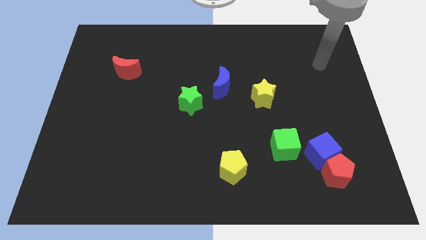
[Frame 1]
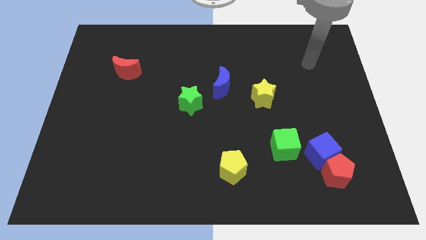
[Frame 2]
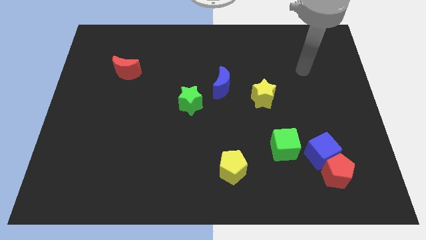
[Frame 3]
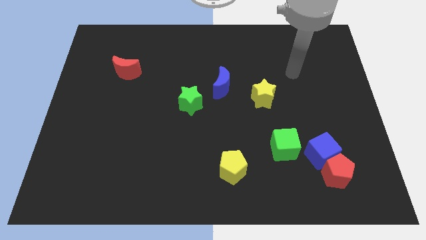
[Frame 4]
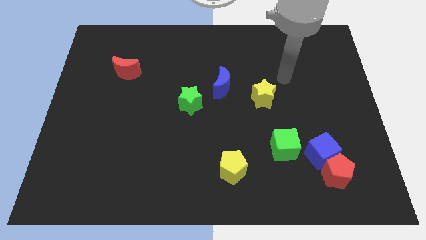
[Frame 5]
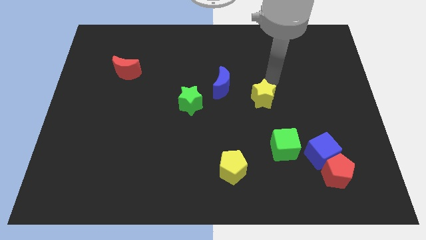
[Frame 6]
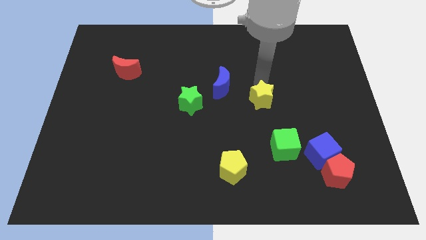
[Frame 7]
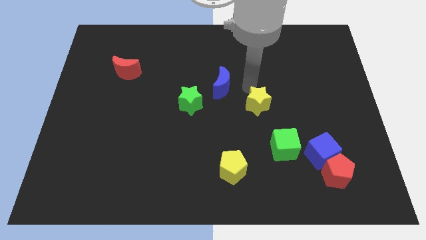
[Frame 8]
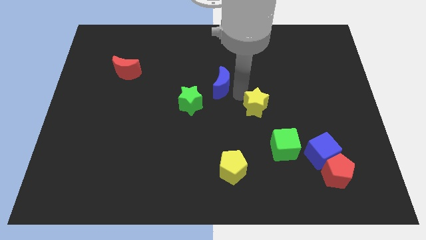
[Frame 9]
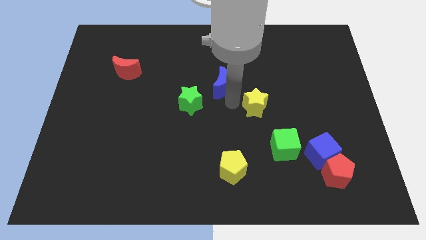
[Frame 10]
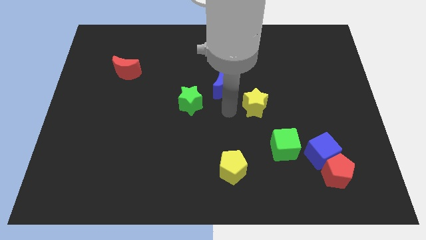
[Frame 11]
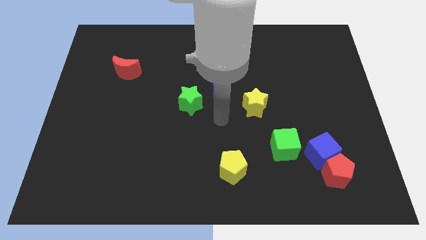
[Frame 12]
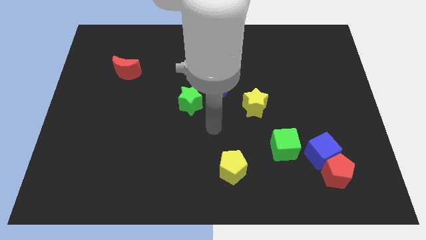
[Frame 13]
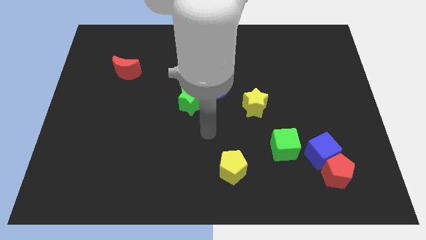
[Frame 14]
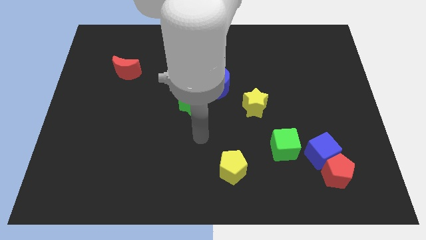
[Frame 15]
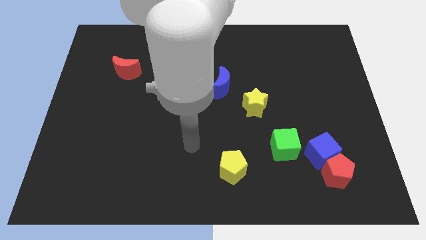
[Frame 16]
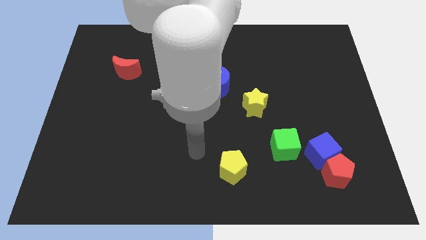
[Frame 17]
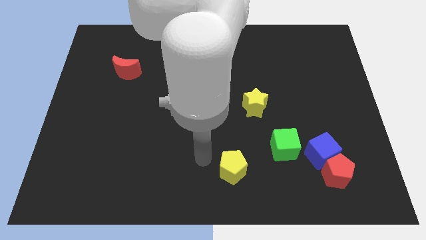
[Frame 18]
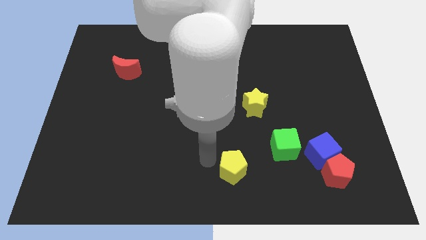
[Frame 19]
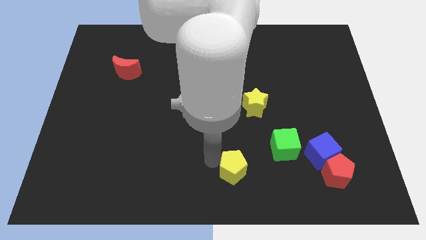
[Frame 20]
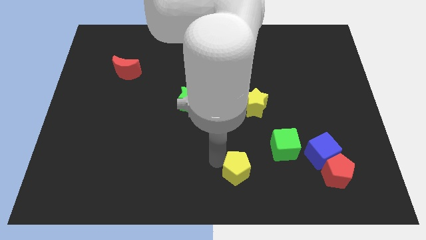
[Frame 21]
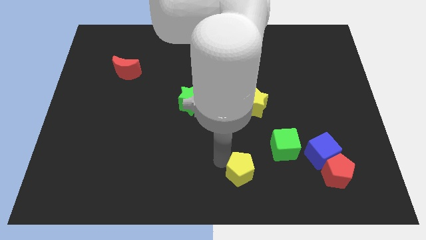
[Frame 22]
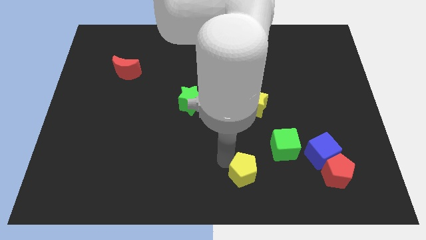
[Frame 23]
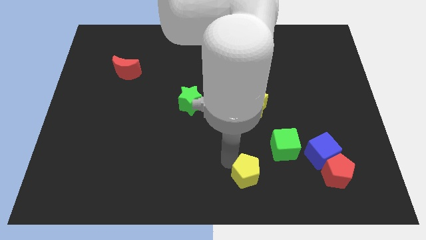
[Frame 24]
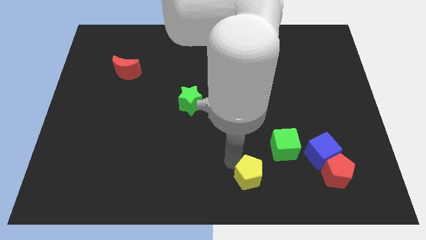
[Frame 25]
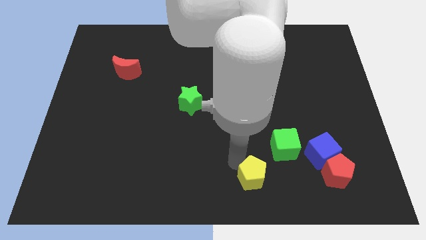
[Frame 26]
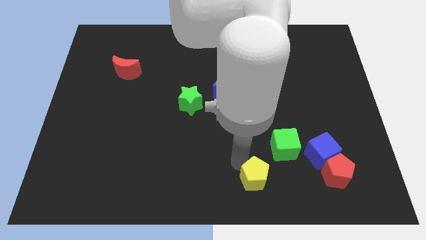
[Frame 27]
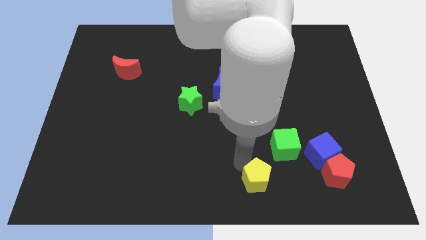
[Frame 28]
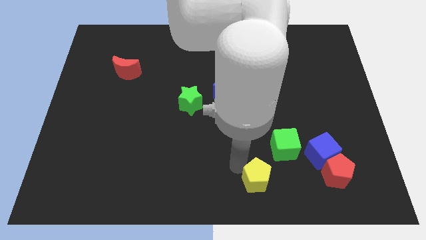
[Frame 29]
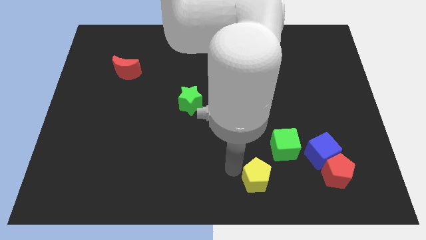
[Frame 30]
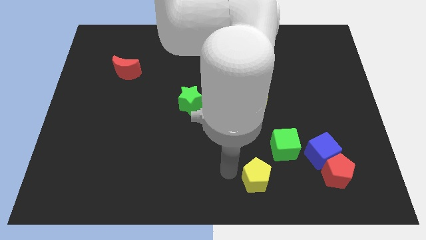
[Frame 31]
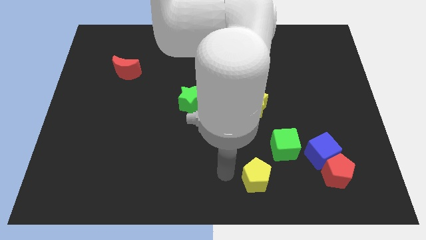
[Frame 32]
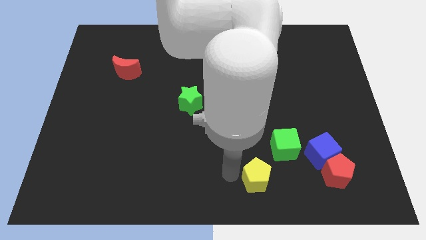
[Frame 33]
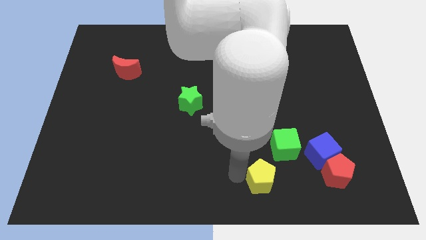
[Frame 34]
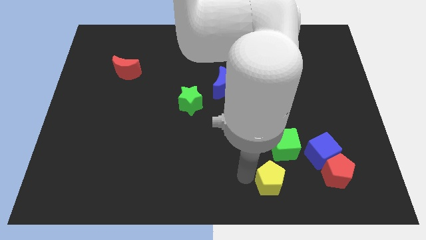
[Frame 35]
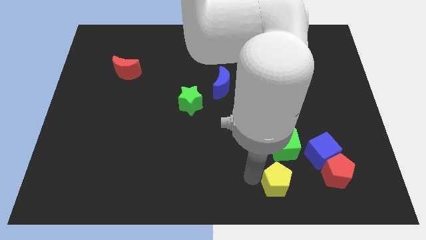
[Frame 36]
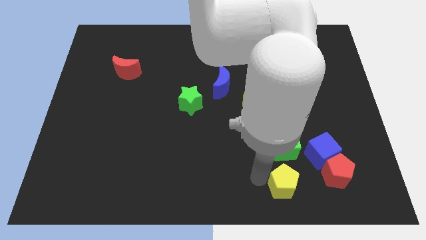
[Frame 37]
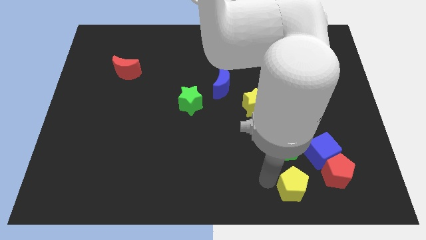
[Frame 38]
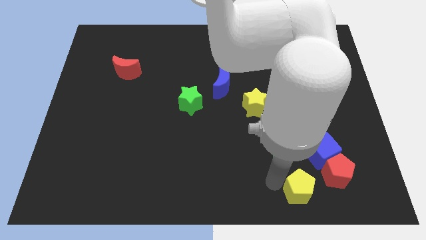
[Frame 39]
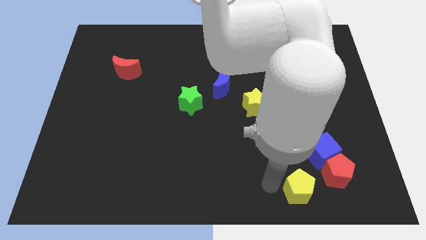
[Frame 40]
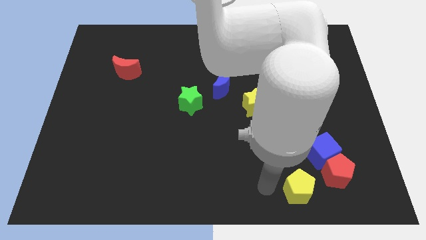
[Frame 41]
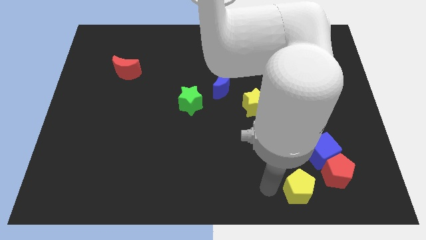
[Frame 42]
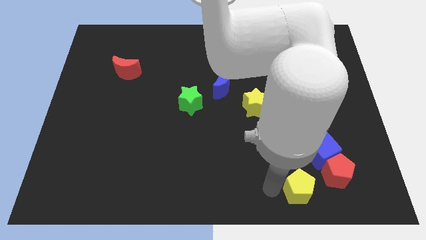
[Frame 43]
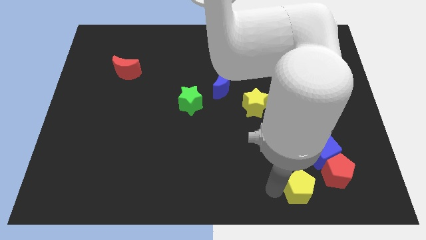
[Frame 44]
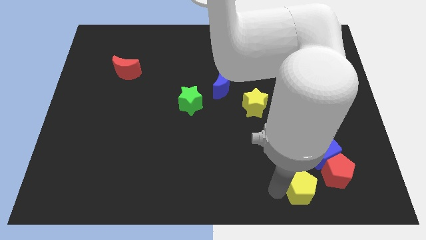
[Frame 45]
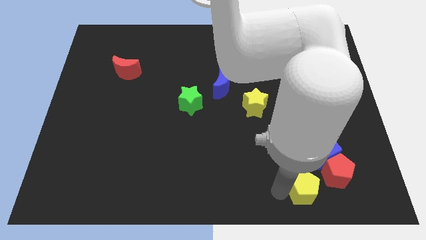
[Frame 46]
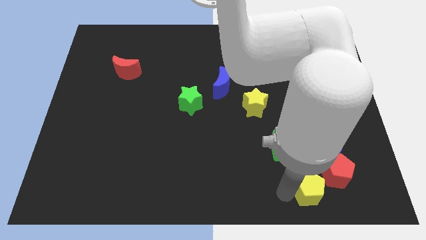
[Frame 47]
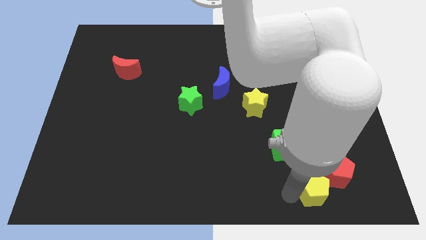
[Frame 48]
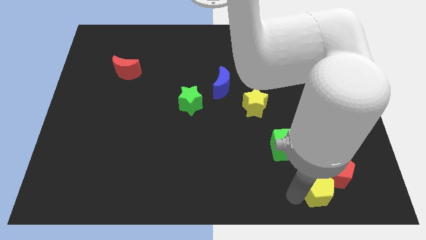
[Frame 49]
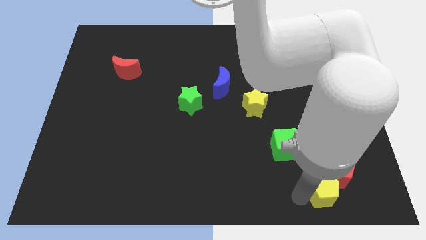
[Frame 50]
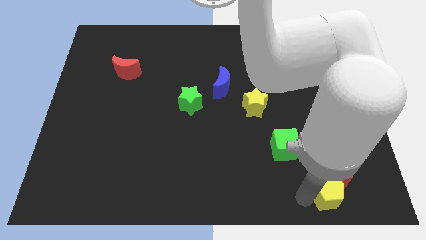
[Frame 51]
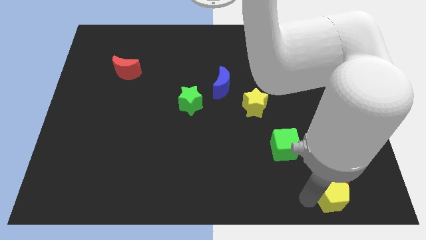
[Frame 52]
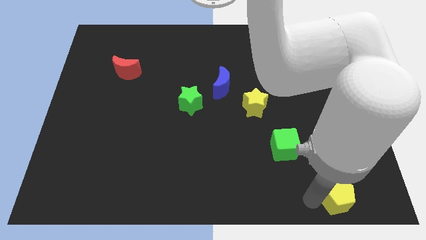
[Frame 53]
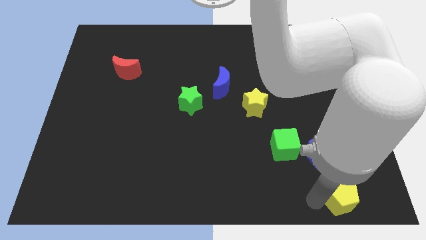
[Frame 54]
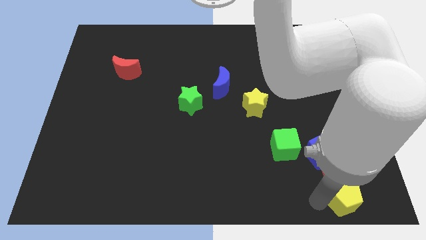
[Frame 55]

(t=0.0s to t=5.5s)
move the yellow pentagon to the bottom right

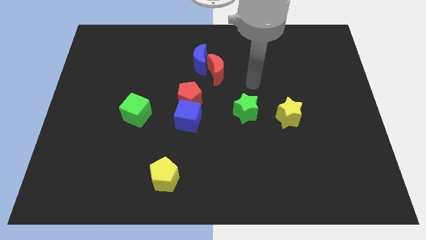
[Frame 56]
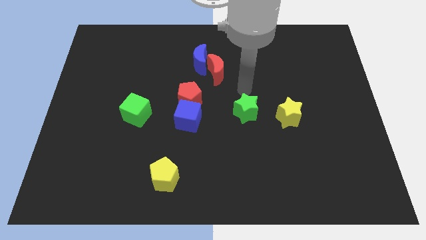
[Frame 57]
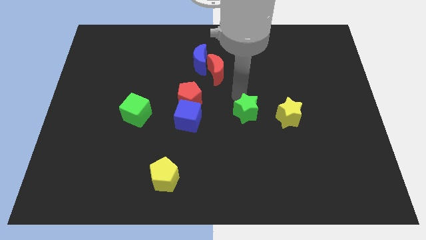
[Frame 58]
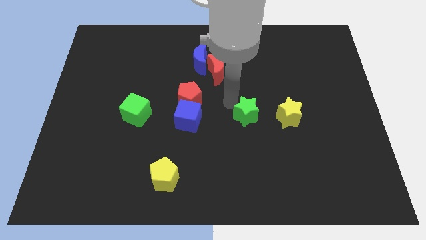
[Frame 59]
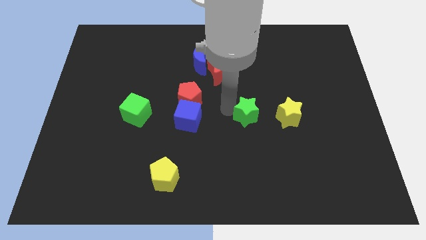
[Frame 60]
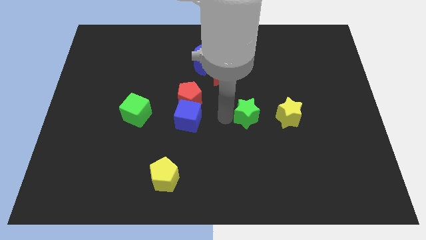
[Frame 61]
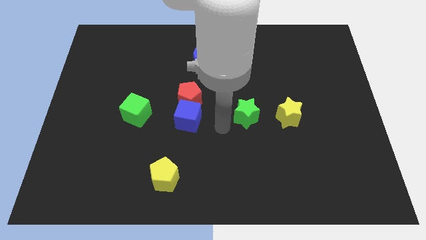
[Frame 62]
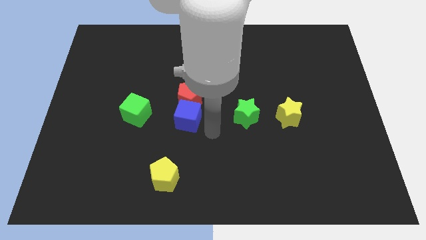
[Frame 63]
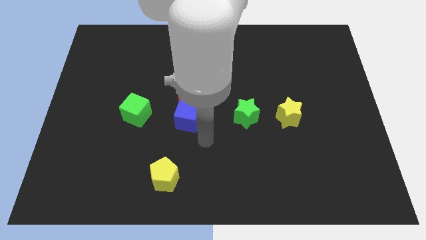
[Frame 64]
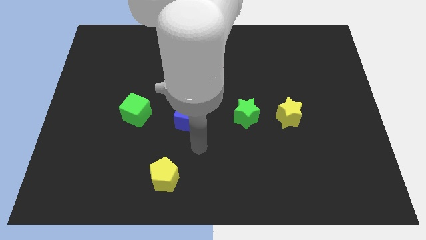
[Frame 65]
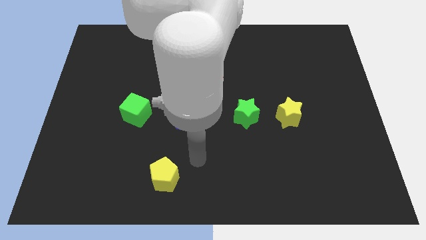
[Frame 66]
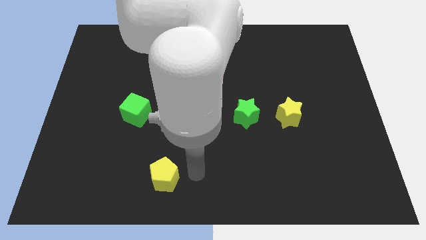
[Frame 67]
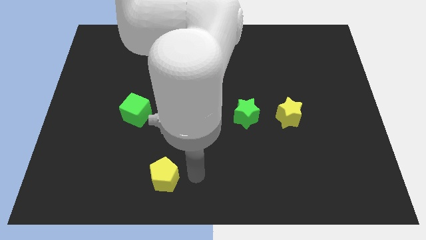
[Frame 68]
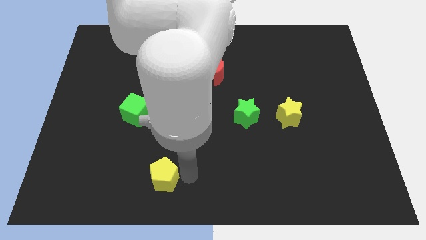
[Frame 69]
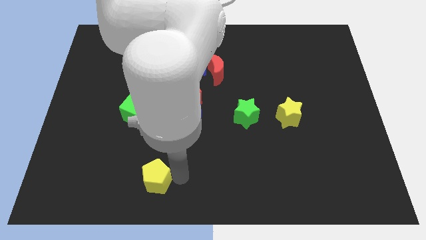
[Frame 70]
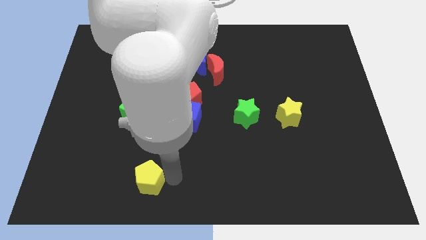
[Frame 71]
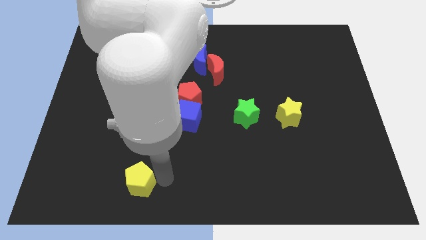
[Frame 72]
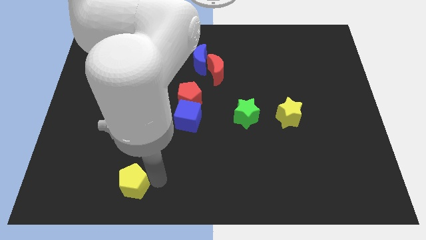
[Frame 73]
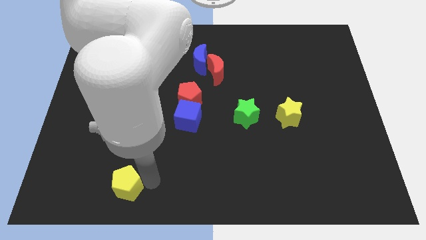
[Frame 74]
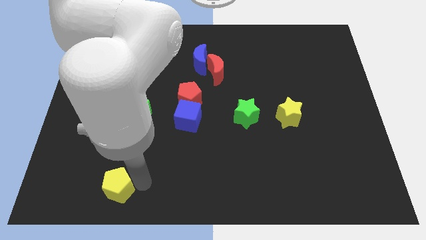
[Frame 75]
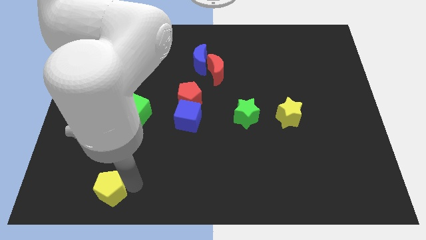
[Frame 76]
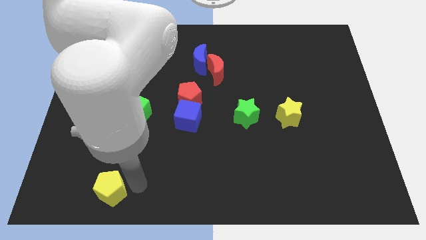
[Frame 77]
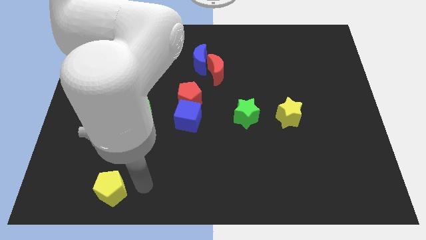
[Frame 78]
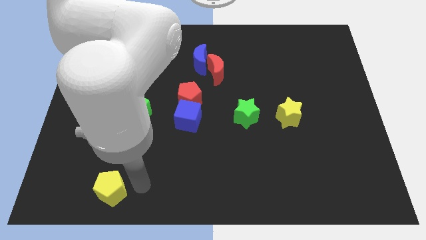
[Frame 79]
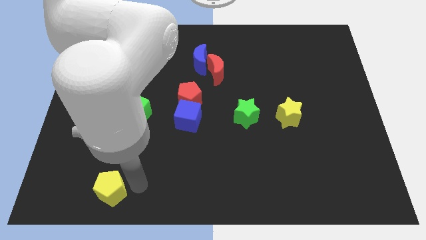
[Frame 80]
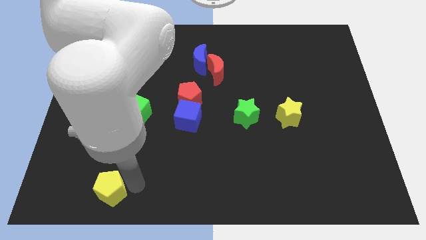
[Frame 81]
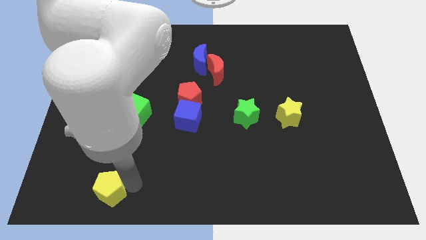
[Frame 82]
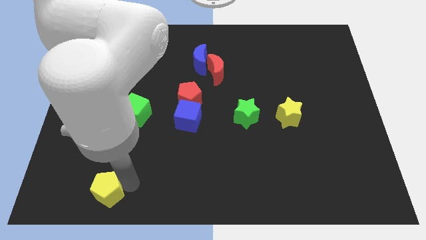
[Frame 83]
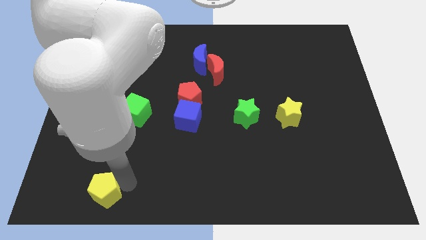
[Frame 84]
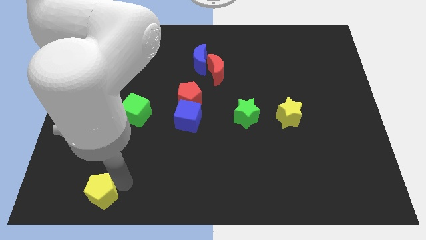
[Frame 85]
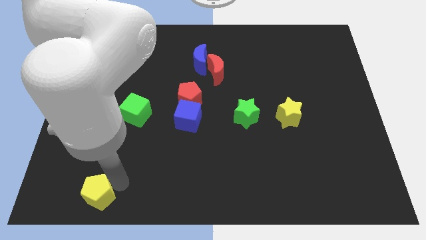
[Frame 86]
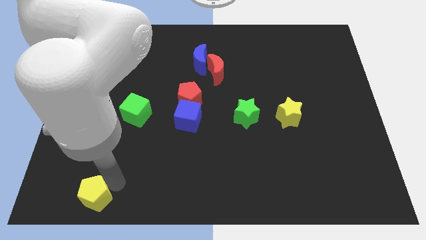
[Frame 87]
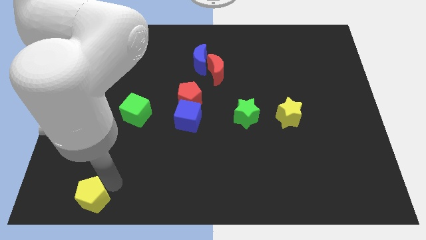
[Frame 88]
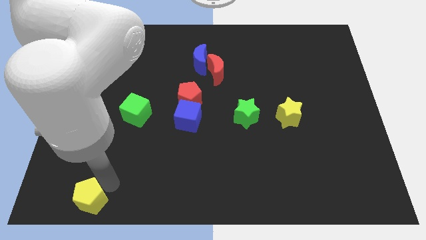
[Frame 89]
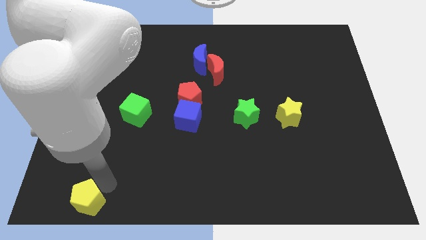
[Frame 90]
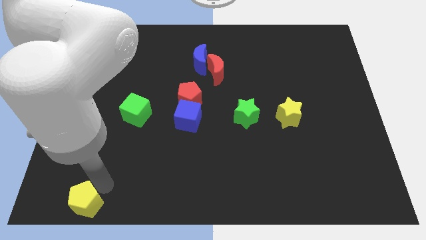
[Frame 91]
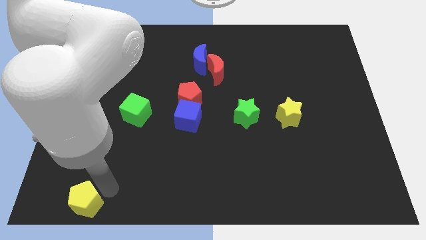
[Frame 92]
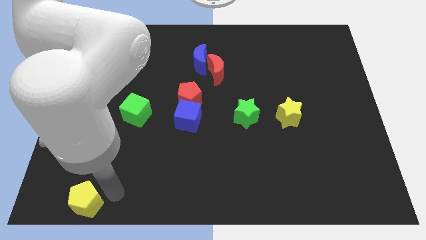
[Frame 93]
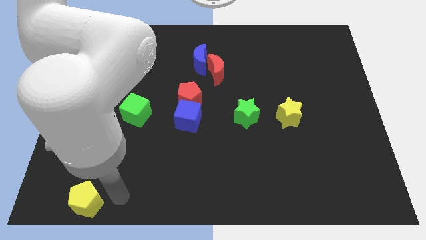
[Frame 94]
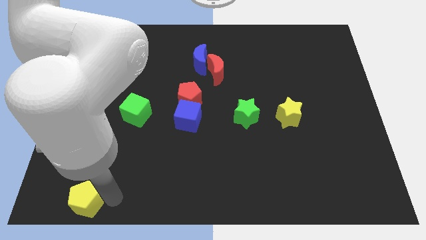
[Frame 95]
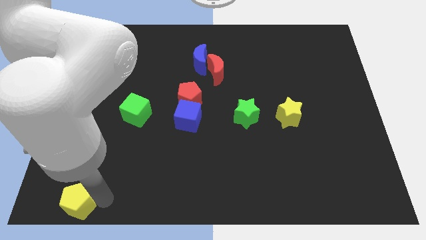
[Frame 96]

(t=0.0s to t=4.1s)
push the yellow pentagon to the bottom left
